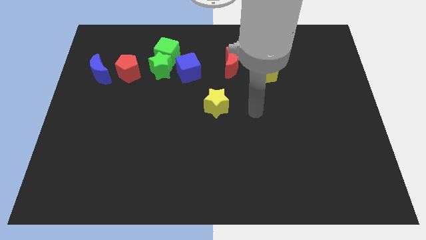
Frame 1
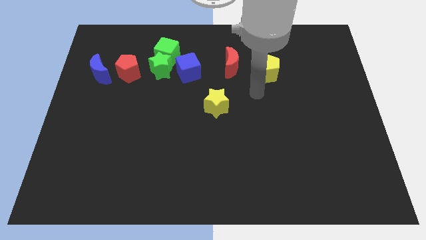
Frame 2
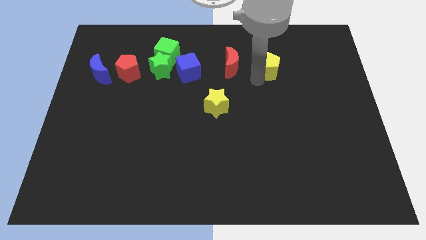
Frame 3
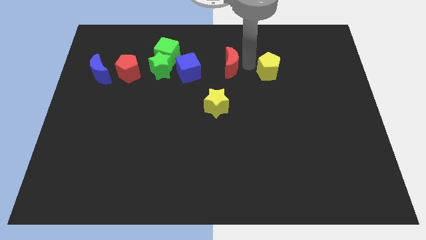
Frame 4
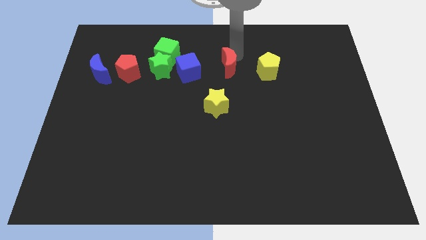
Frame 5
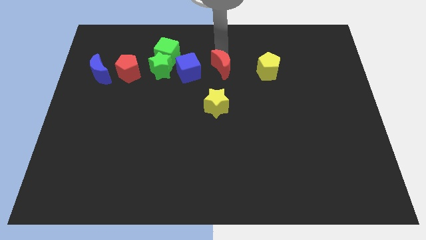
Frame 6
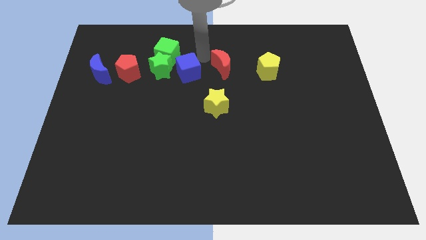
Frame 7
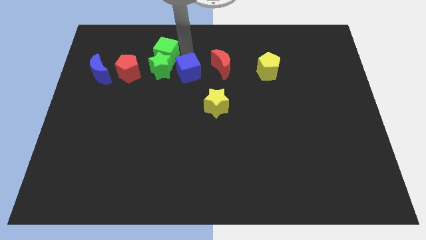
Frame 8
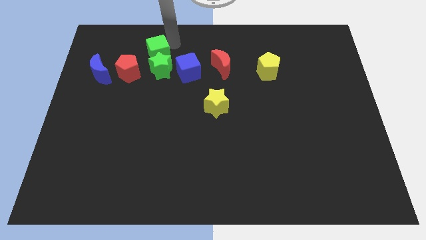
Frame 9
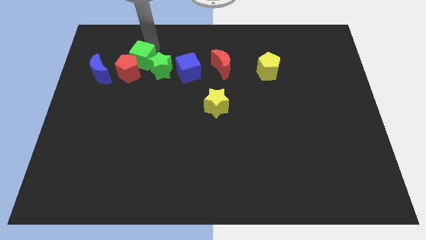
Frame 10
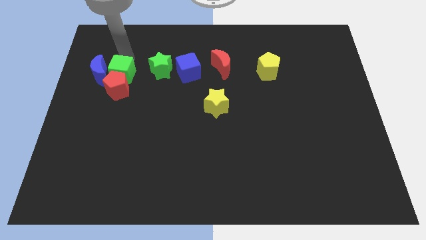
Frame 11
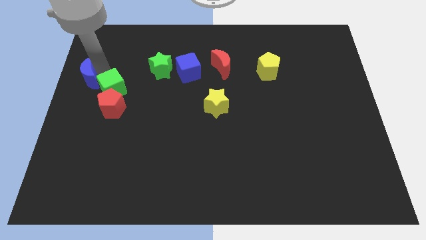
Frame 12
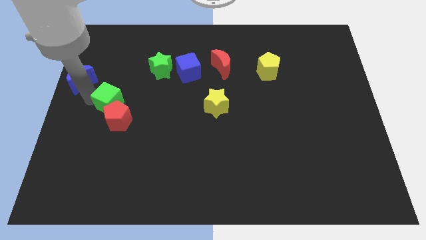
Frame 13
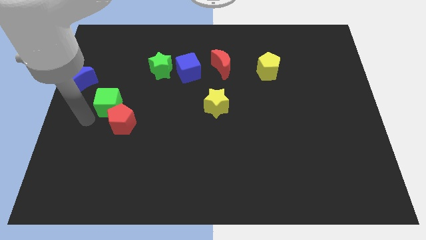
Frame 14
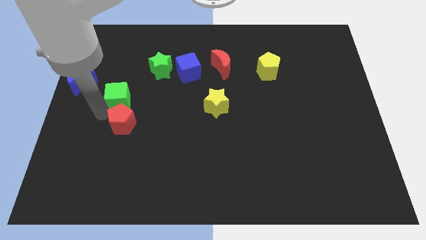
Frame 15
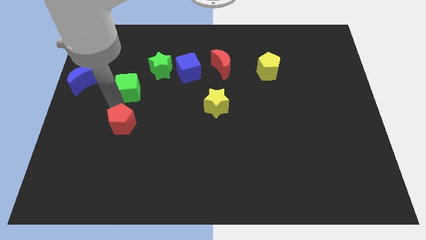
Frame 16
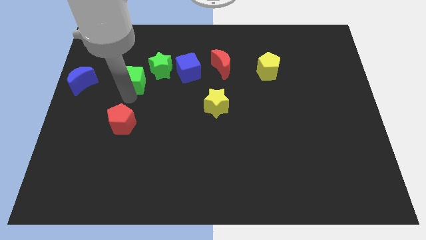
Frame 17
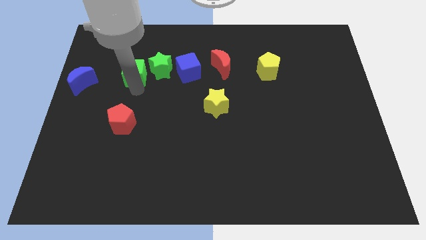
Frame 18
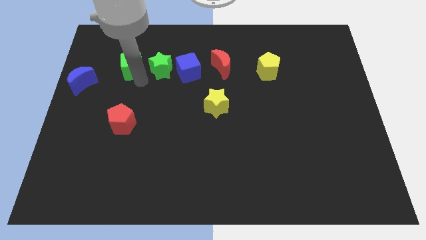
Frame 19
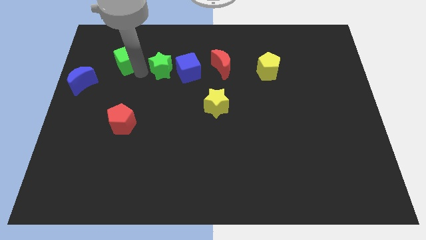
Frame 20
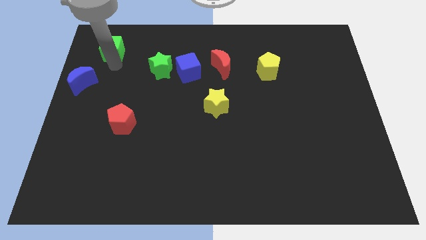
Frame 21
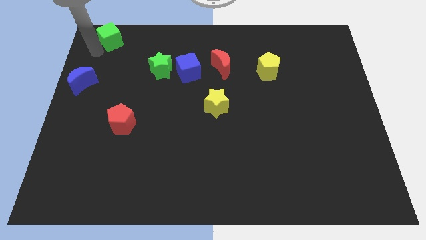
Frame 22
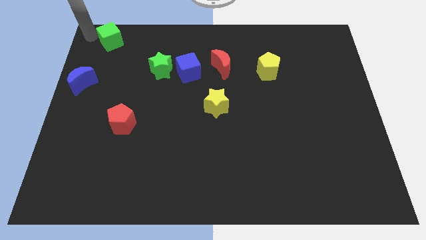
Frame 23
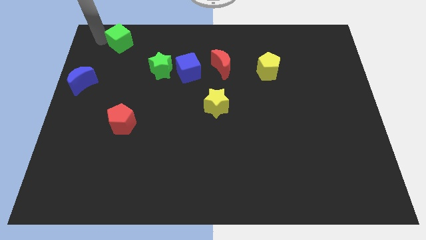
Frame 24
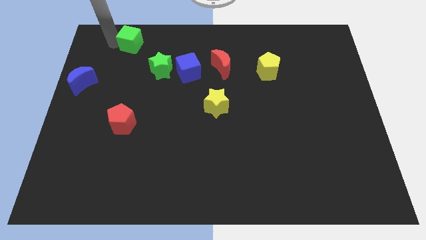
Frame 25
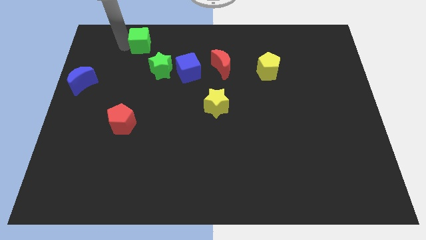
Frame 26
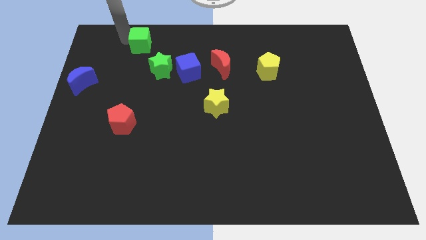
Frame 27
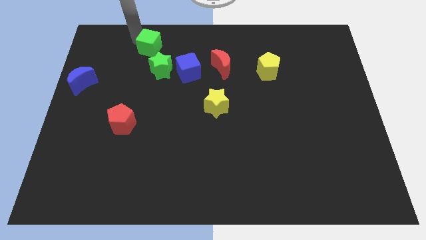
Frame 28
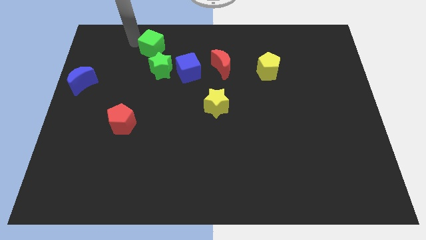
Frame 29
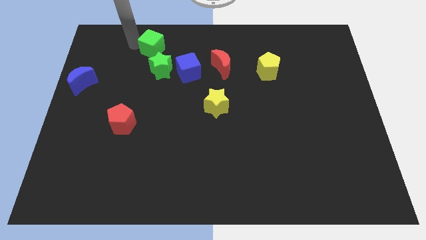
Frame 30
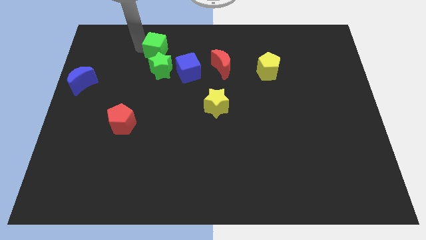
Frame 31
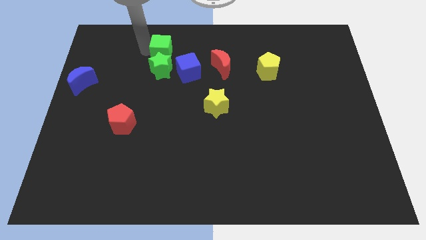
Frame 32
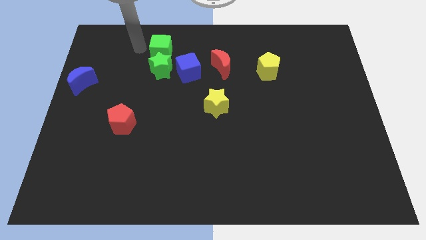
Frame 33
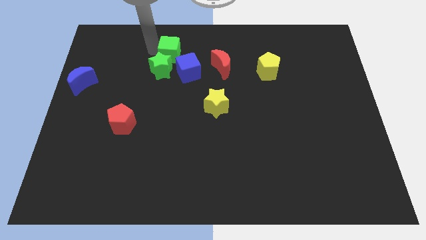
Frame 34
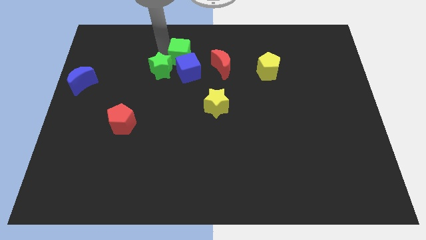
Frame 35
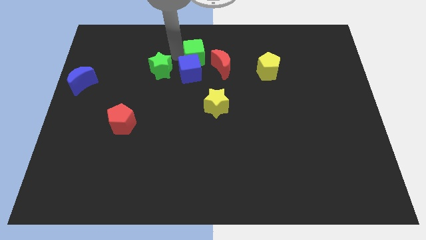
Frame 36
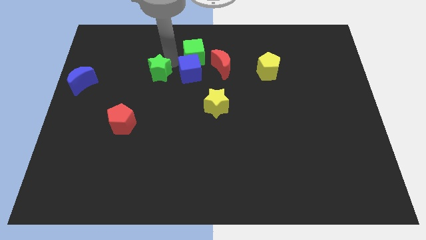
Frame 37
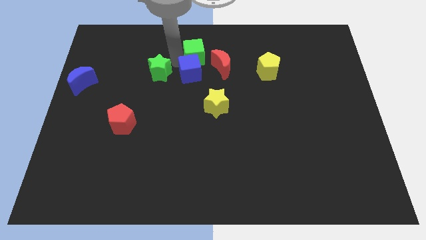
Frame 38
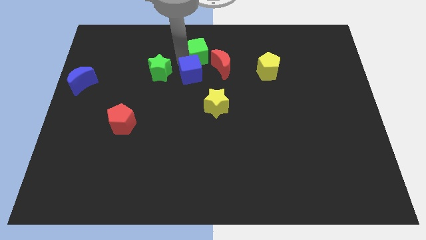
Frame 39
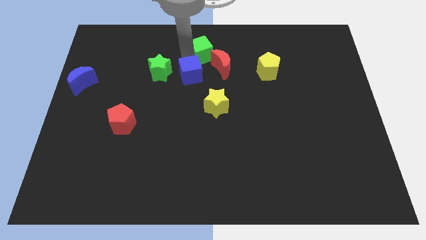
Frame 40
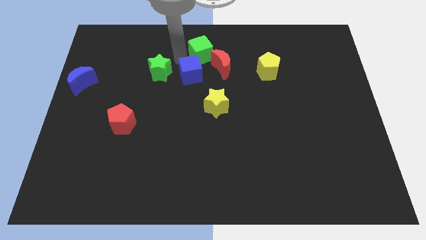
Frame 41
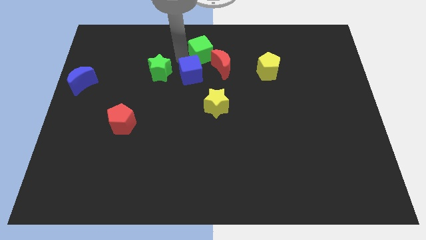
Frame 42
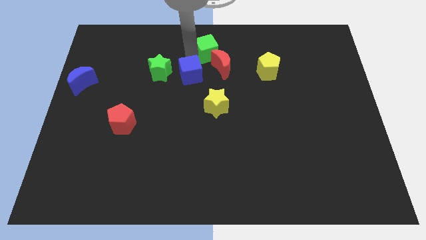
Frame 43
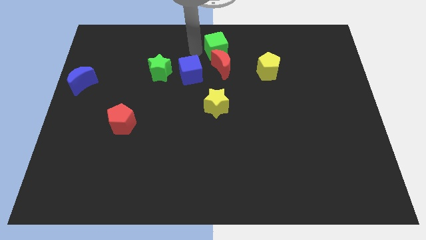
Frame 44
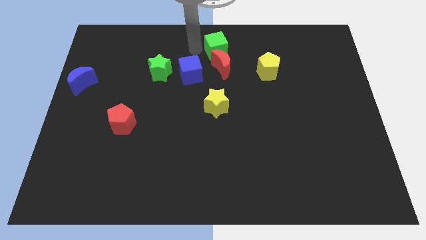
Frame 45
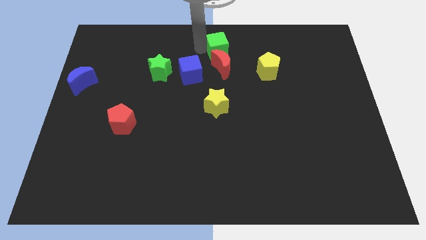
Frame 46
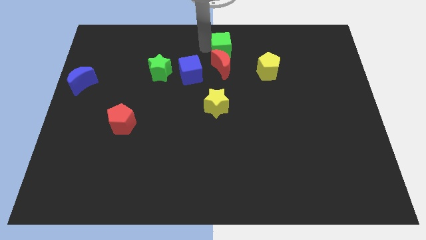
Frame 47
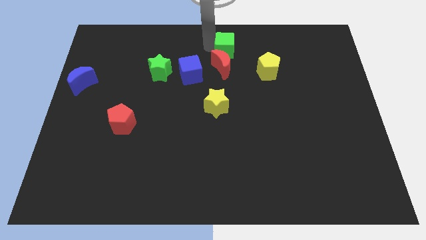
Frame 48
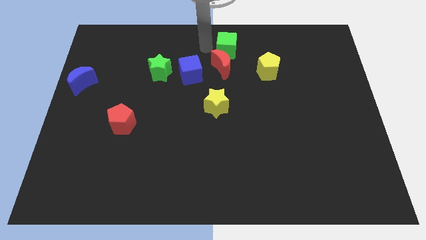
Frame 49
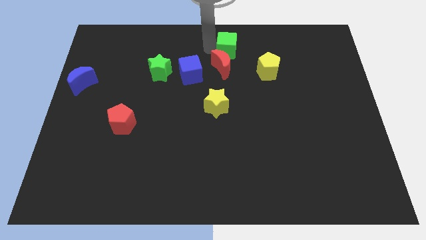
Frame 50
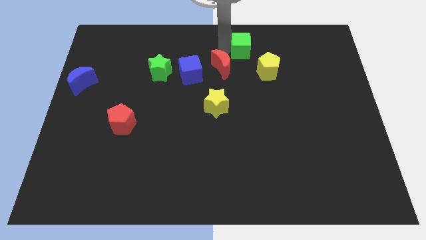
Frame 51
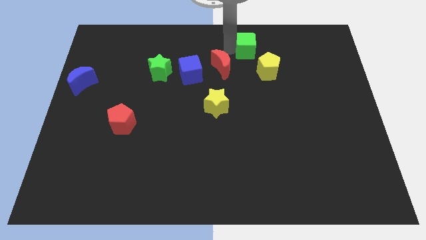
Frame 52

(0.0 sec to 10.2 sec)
slide the green cube to the right

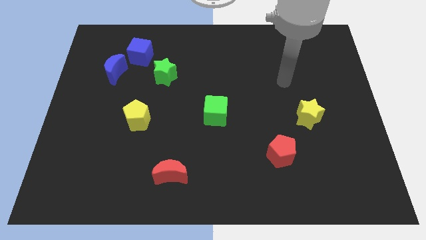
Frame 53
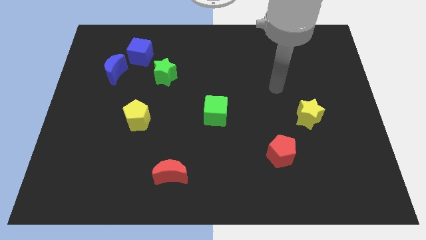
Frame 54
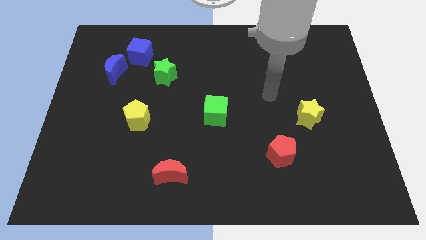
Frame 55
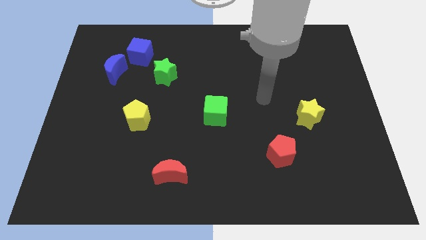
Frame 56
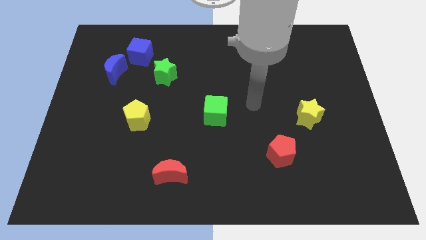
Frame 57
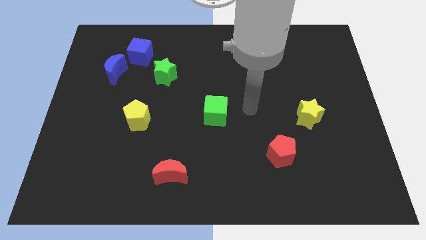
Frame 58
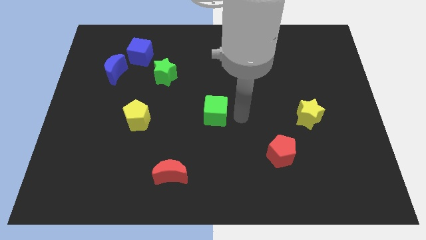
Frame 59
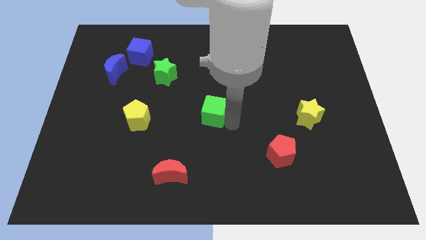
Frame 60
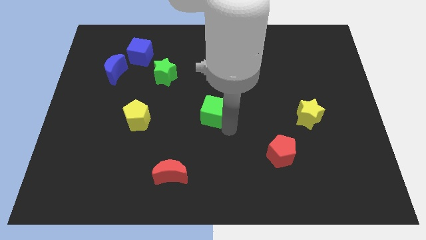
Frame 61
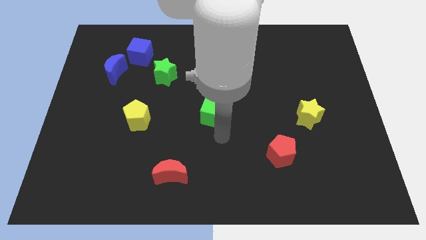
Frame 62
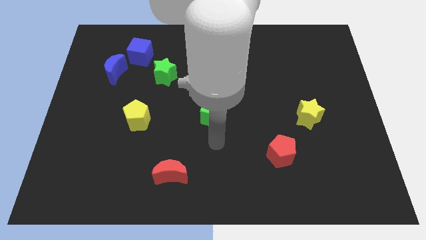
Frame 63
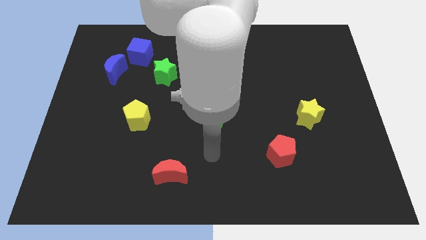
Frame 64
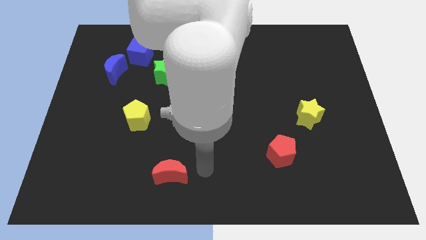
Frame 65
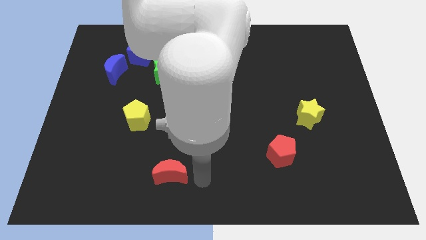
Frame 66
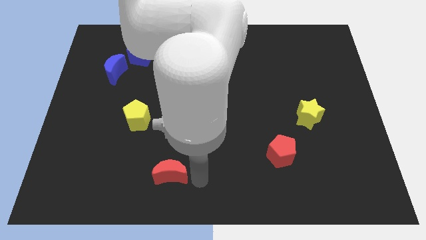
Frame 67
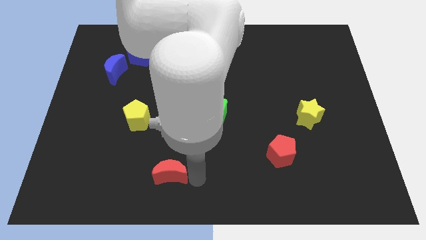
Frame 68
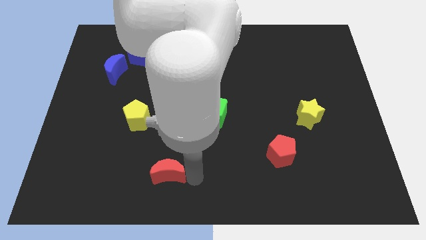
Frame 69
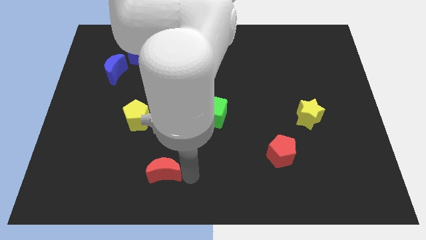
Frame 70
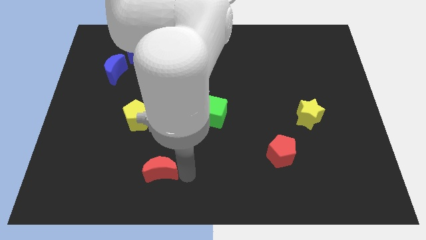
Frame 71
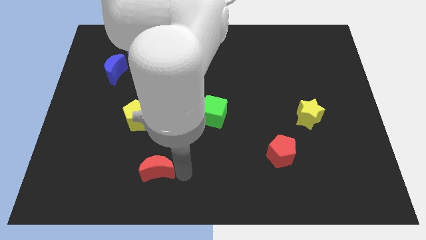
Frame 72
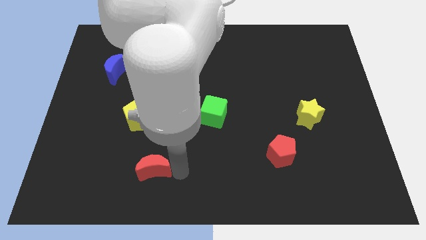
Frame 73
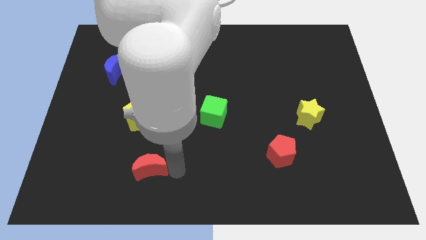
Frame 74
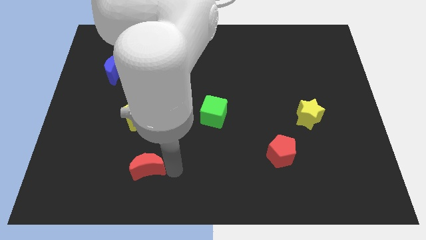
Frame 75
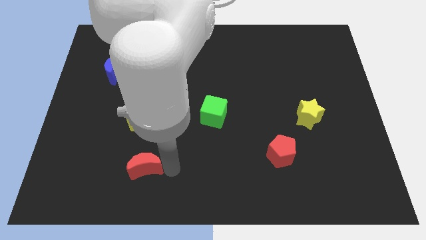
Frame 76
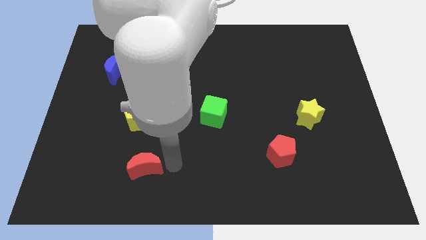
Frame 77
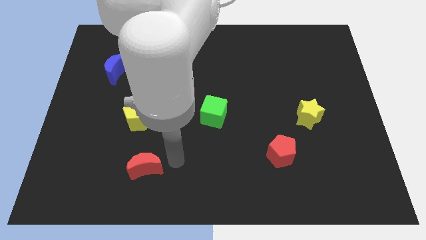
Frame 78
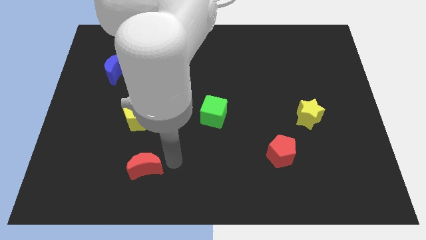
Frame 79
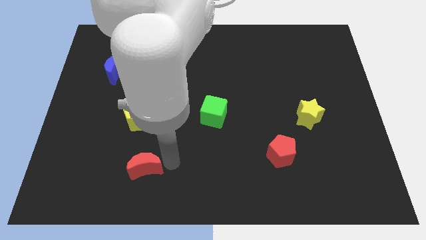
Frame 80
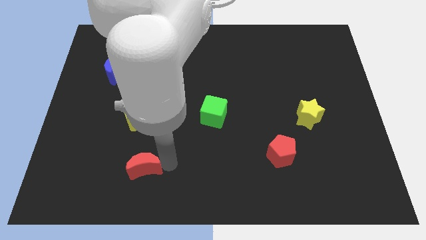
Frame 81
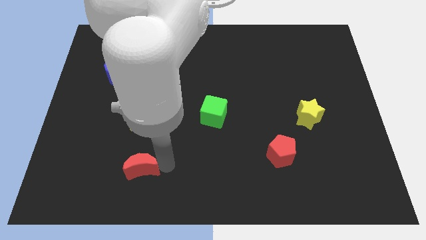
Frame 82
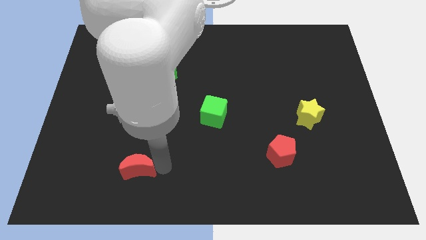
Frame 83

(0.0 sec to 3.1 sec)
move the red moon left a bit
